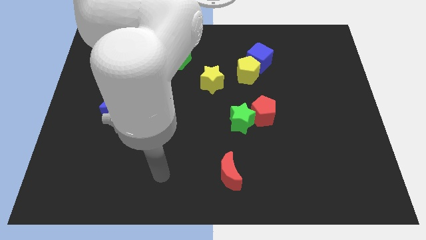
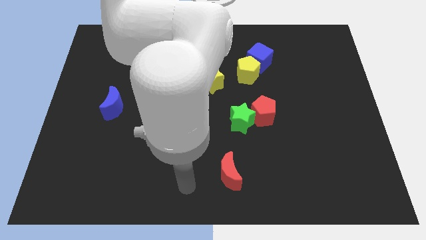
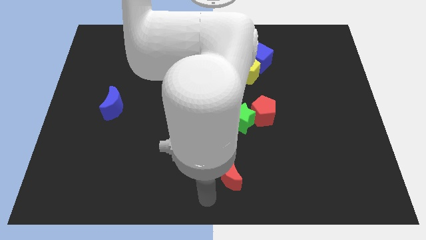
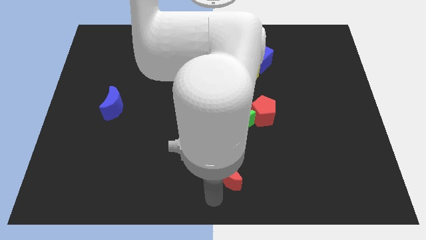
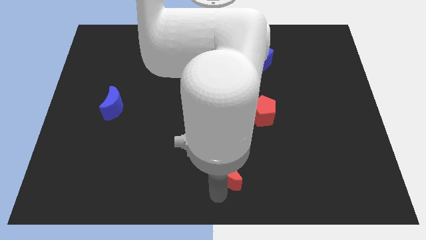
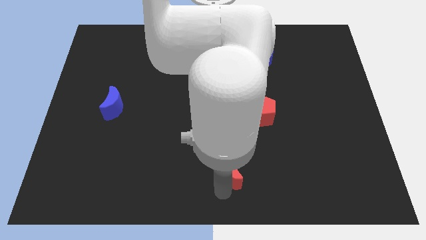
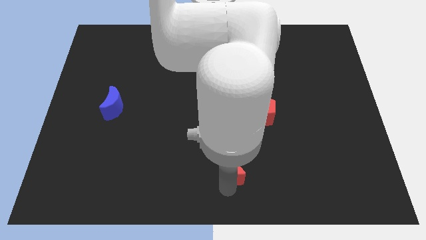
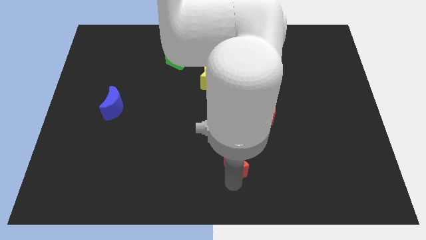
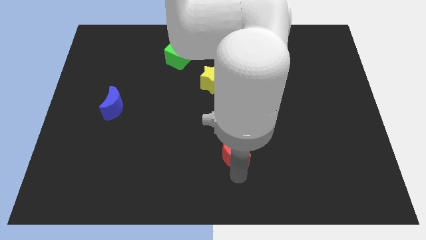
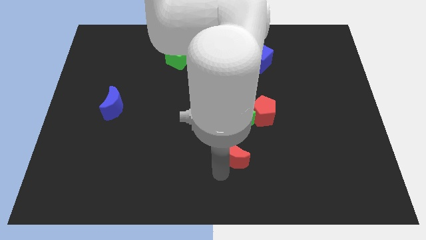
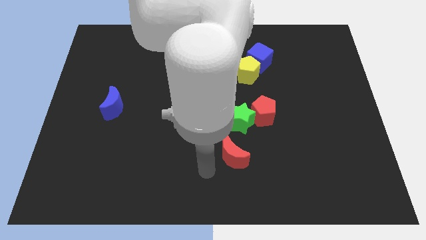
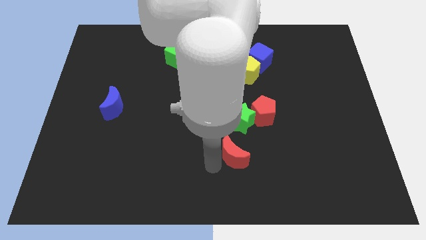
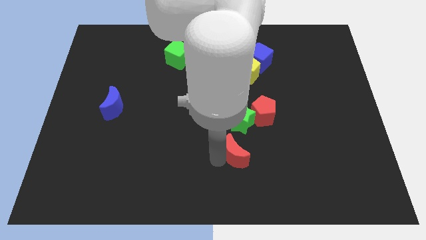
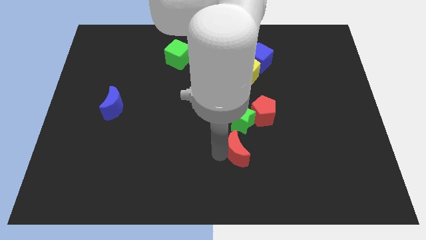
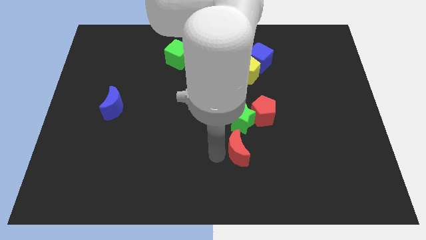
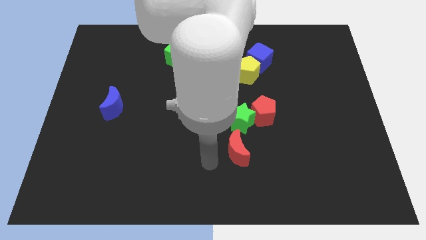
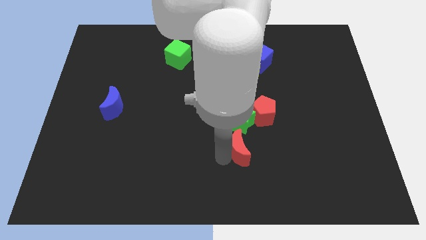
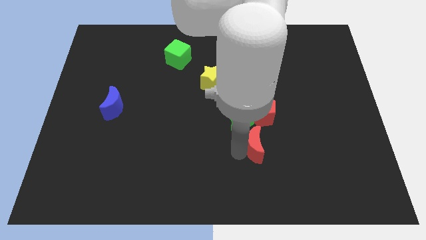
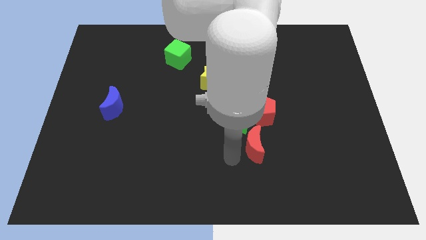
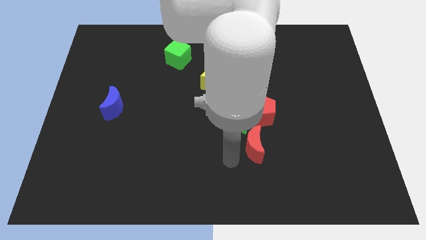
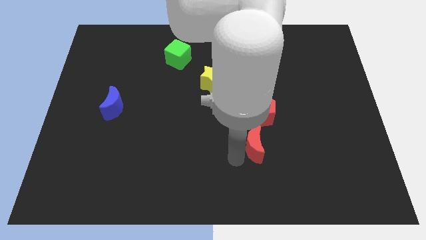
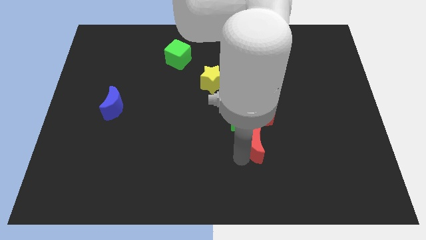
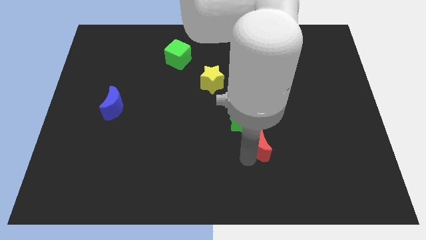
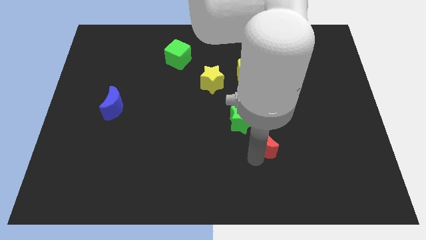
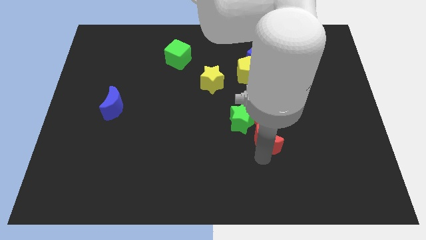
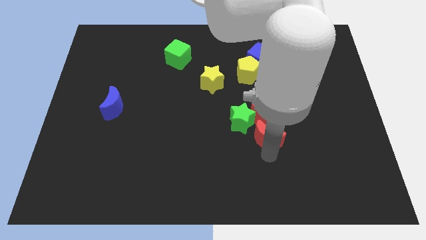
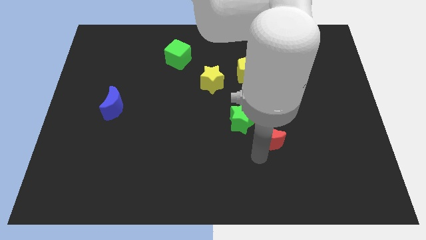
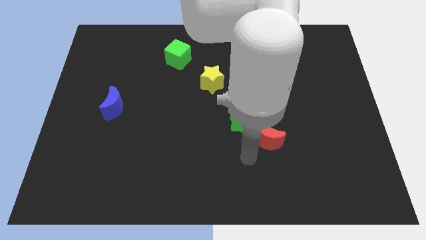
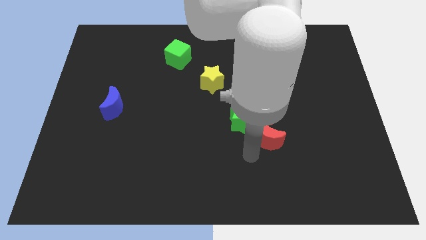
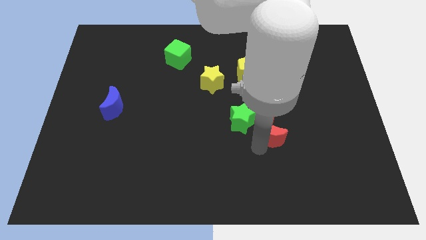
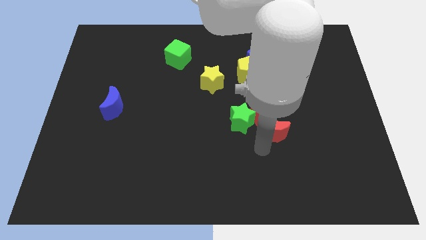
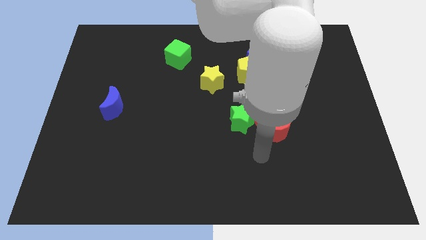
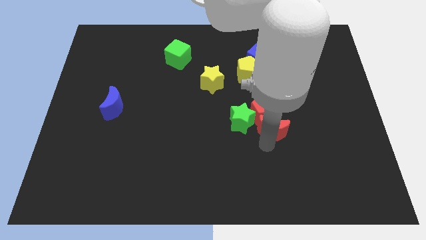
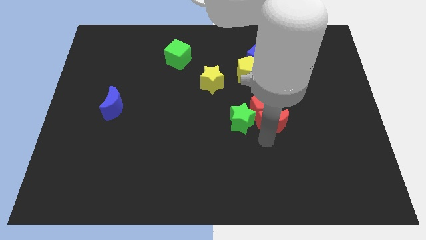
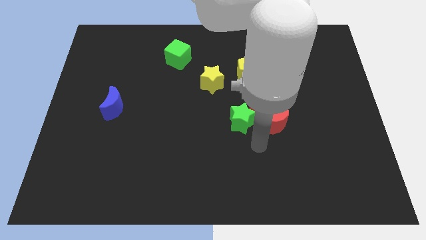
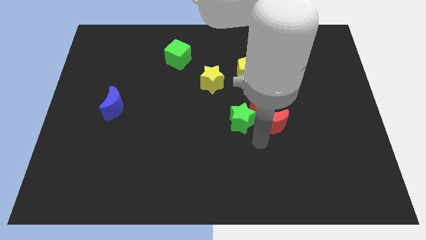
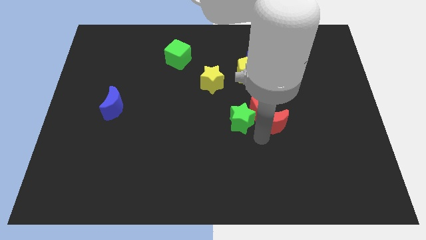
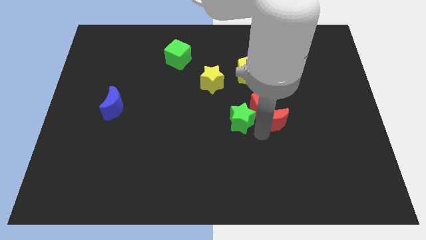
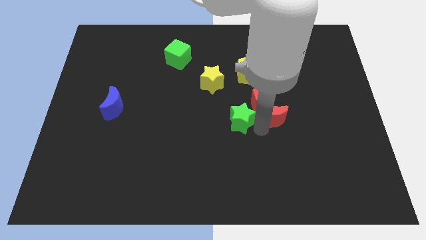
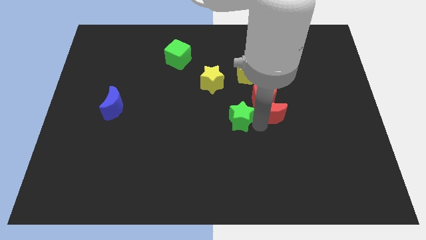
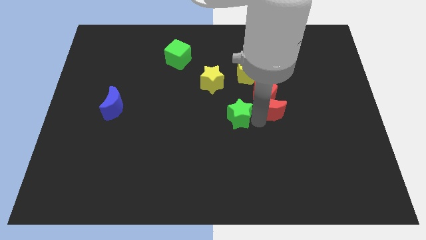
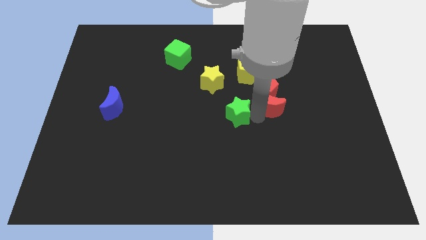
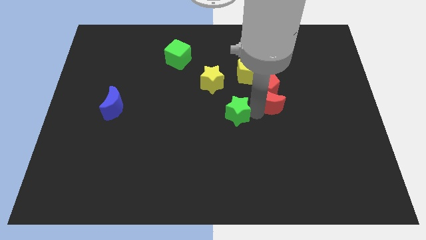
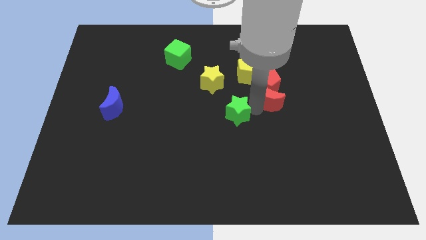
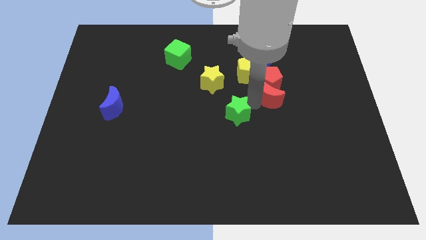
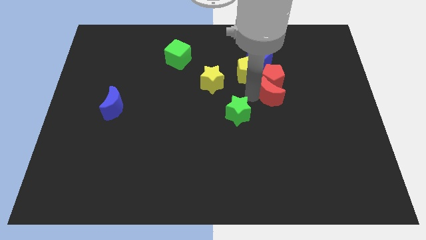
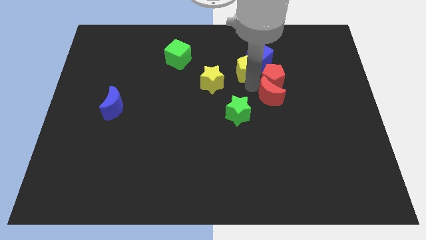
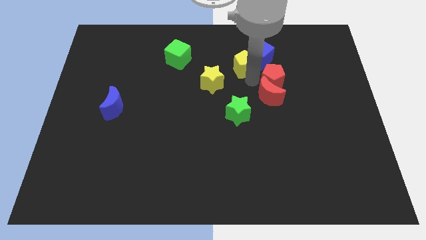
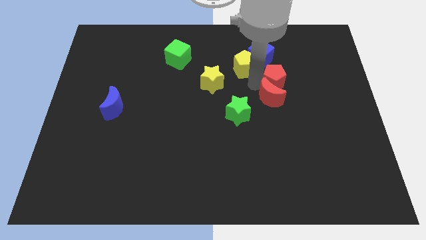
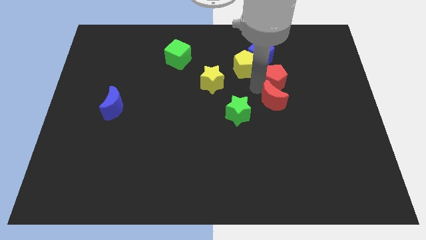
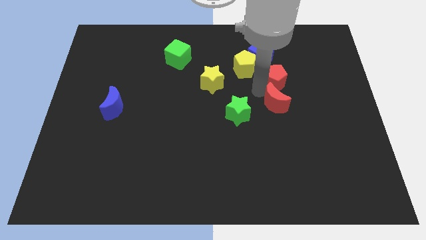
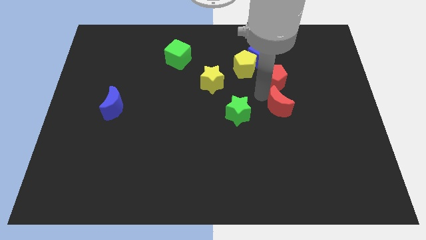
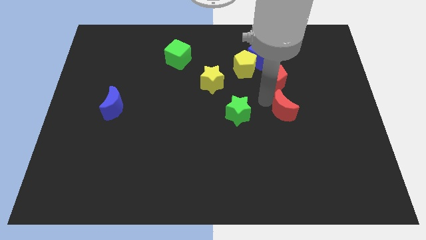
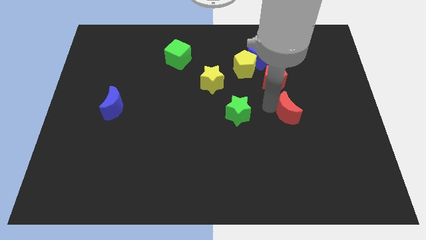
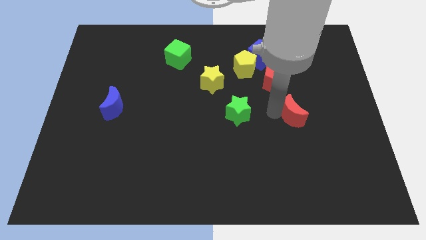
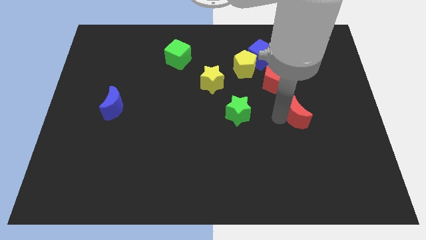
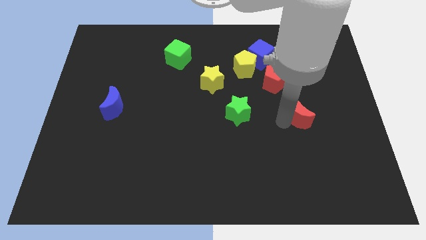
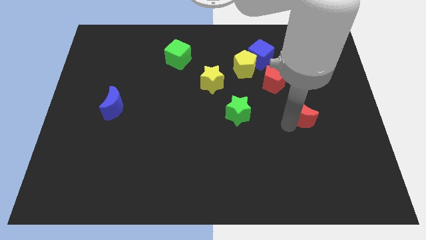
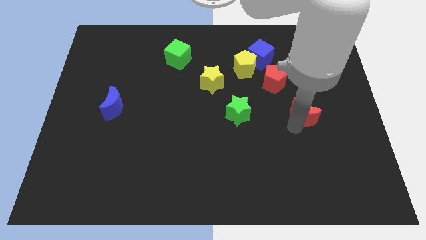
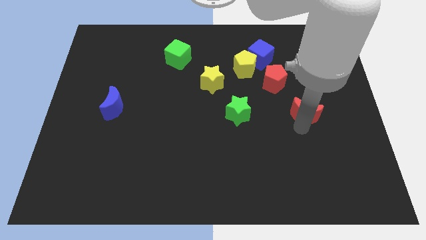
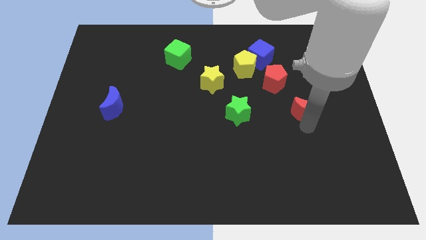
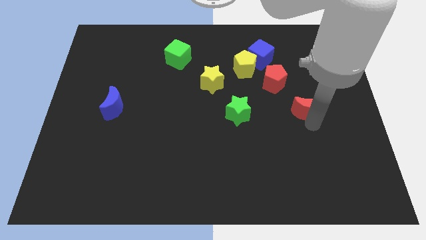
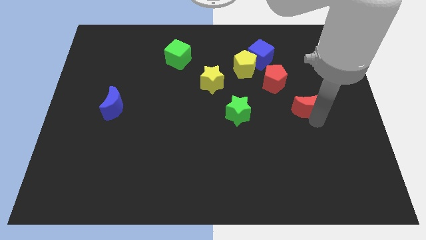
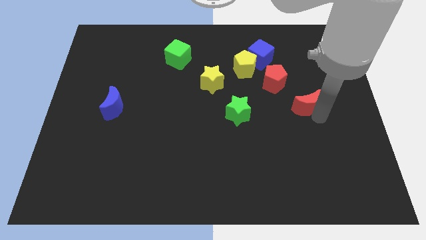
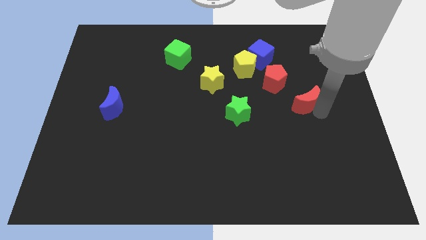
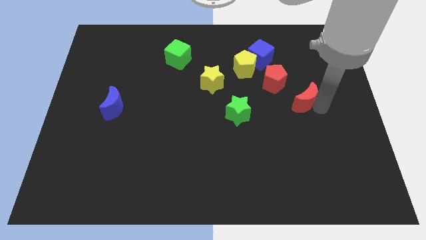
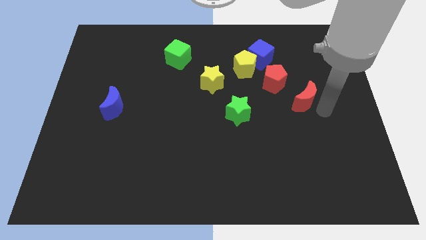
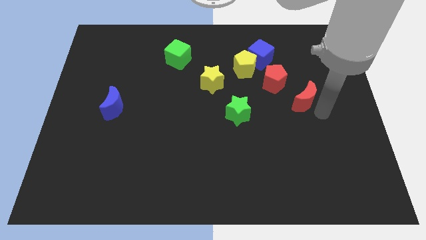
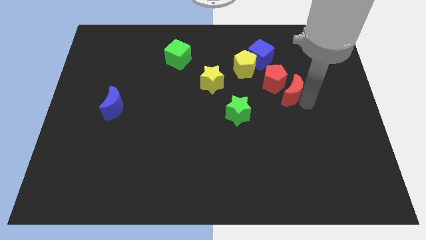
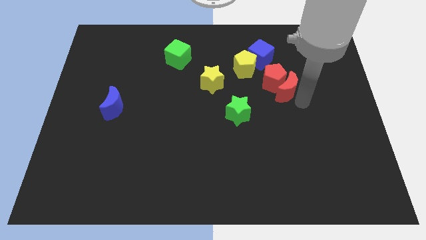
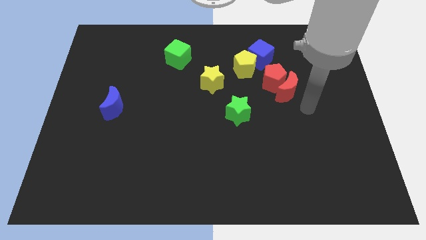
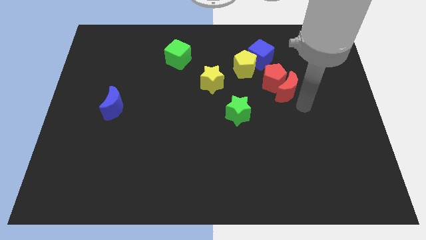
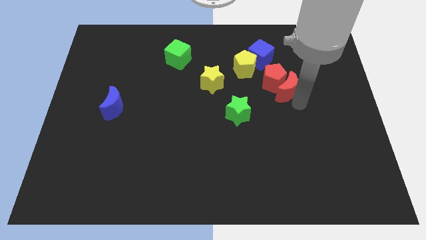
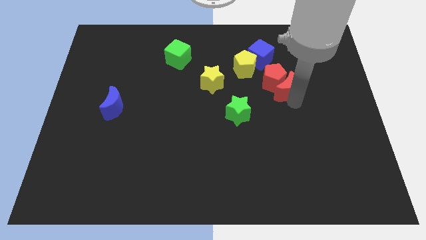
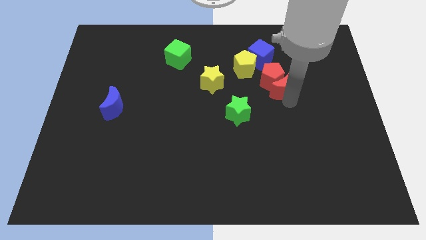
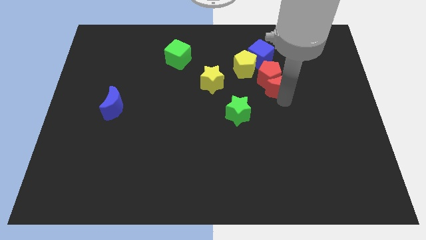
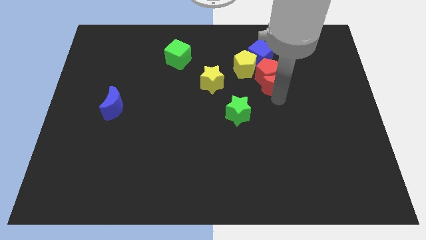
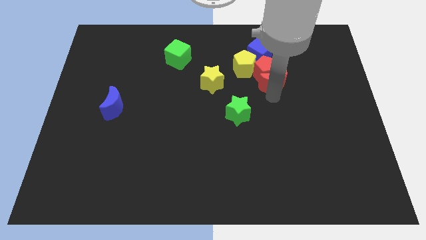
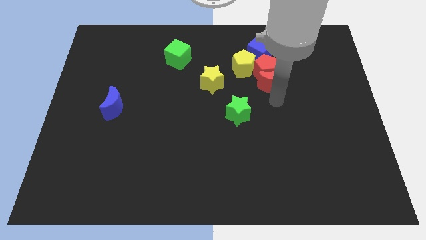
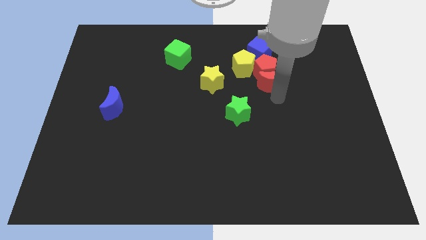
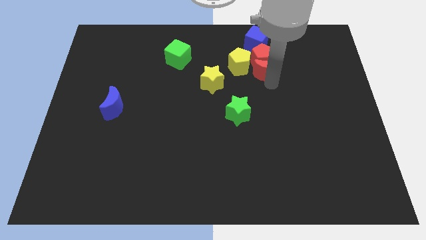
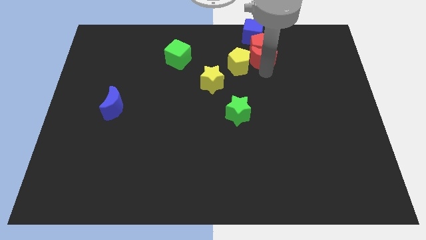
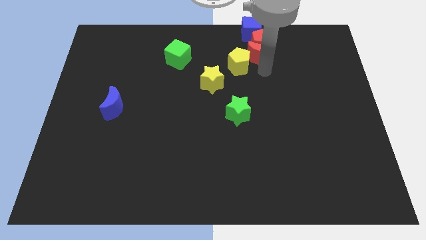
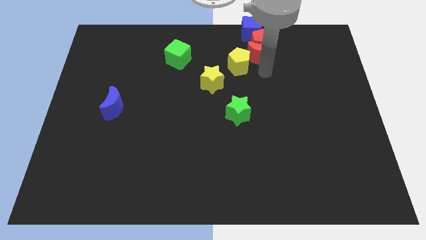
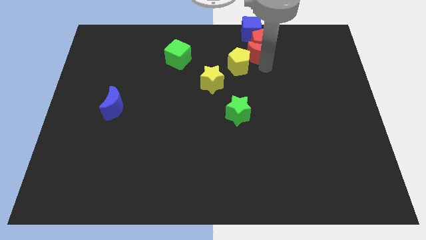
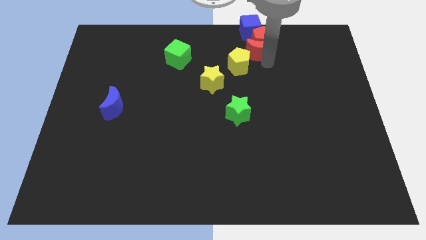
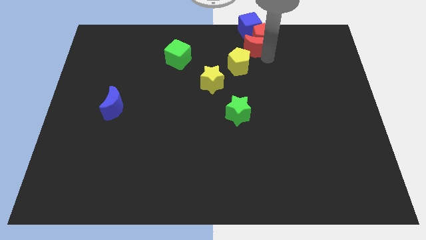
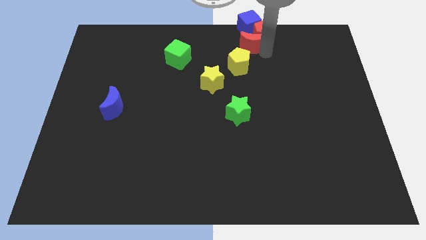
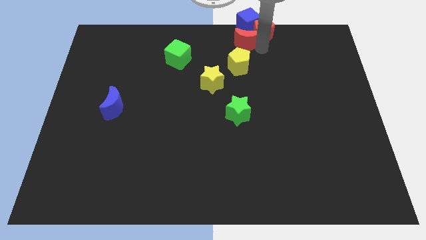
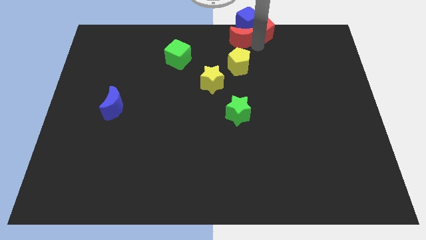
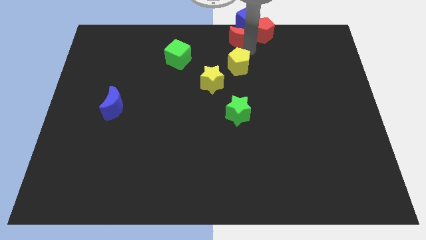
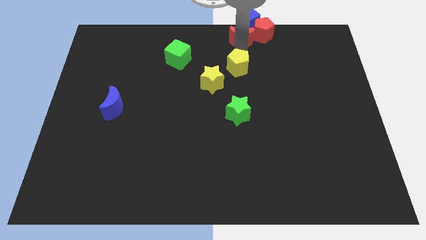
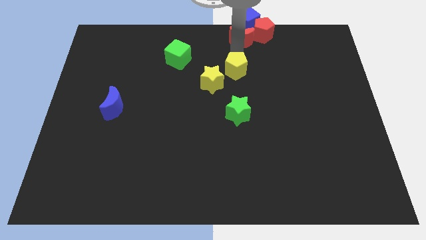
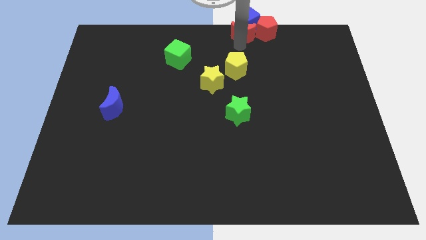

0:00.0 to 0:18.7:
push the red moon close to the blue cube
